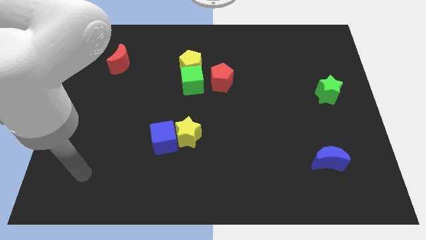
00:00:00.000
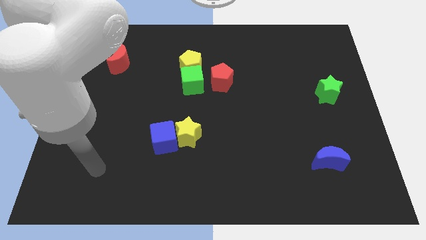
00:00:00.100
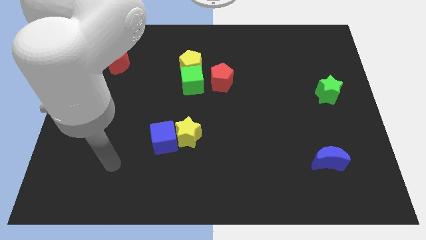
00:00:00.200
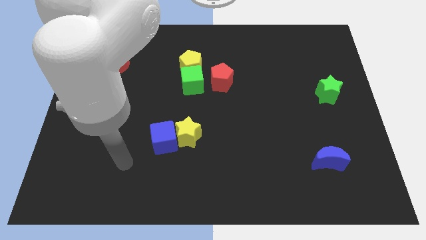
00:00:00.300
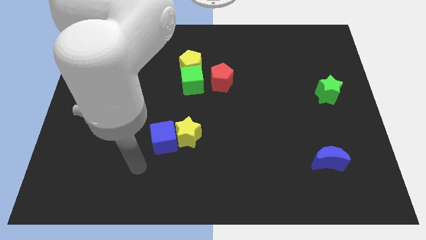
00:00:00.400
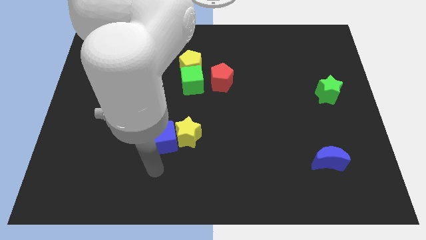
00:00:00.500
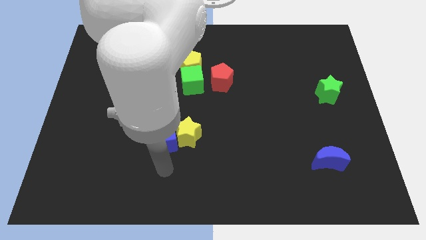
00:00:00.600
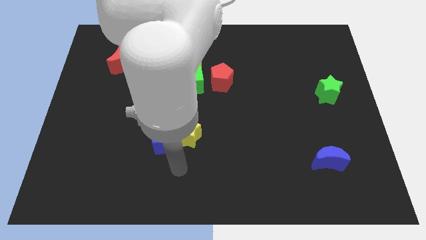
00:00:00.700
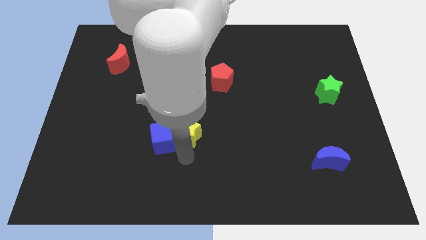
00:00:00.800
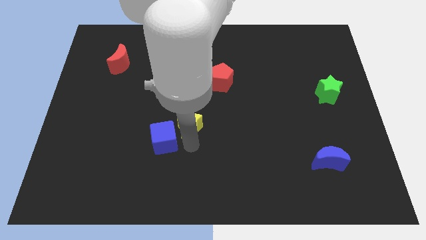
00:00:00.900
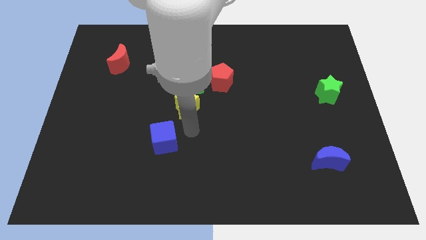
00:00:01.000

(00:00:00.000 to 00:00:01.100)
separate the blue cube from the yellow star

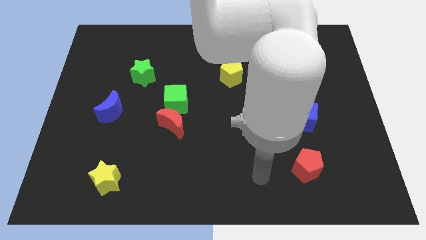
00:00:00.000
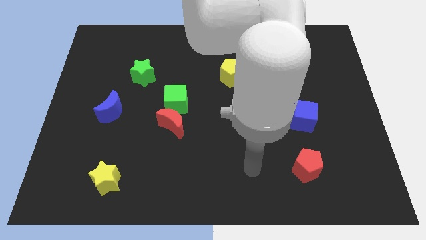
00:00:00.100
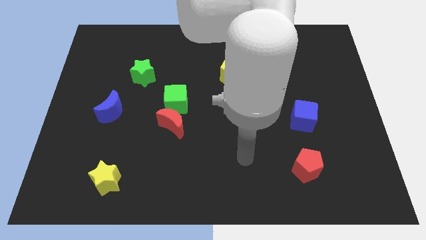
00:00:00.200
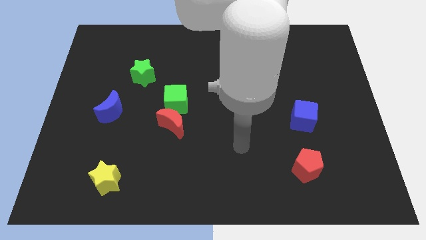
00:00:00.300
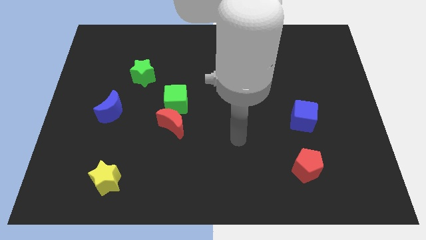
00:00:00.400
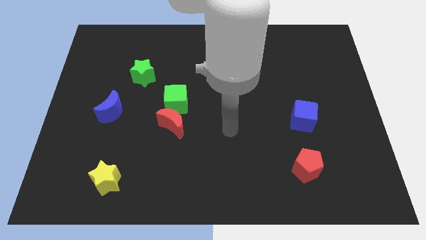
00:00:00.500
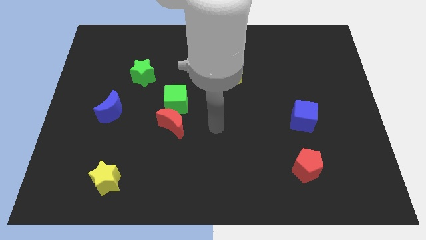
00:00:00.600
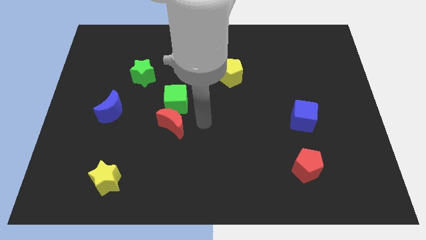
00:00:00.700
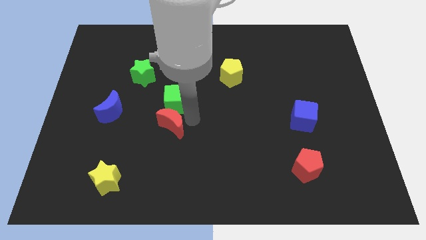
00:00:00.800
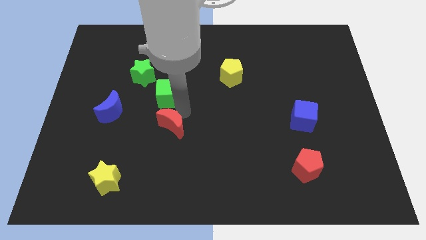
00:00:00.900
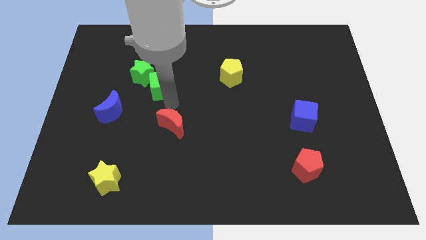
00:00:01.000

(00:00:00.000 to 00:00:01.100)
move the red moon away from the green cube

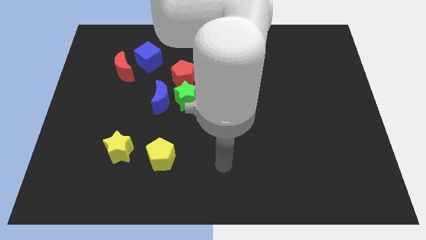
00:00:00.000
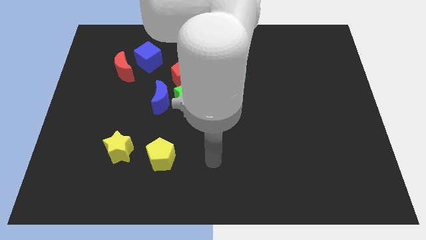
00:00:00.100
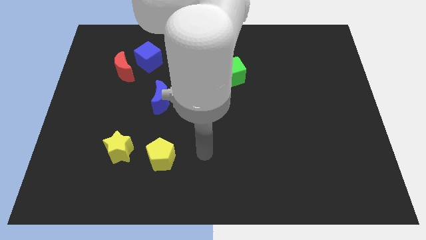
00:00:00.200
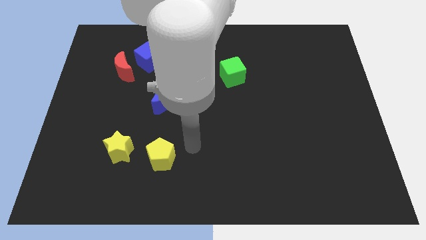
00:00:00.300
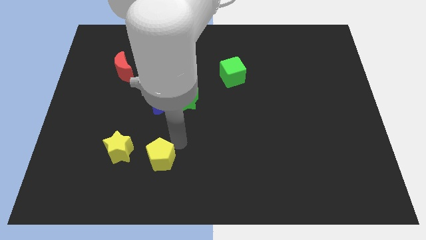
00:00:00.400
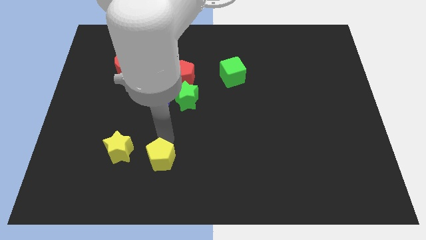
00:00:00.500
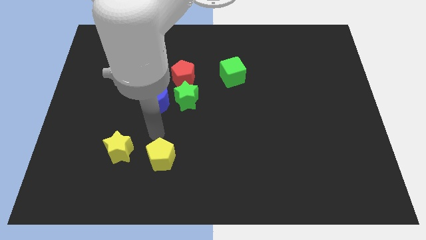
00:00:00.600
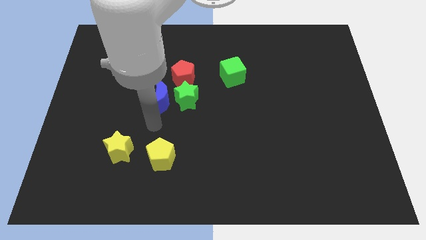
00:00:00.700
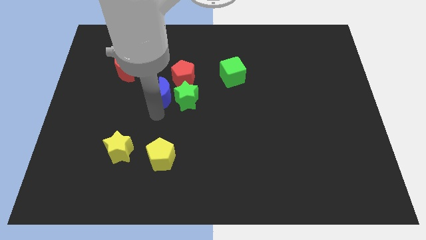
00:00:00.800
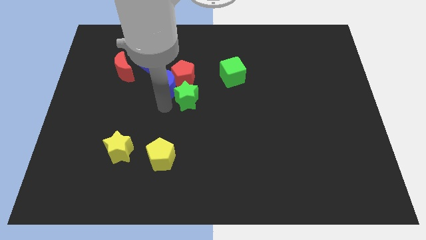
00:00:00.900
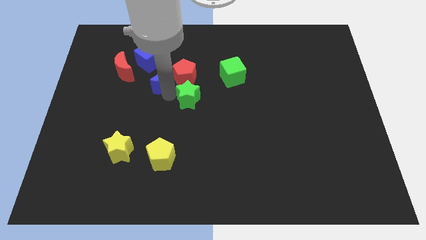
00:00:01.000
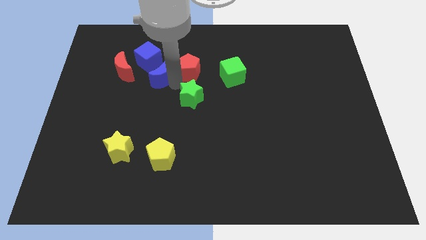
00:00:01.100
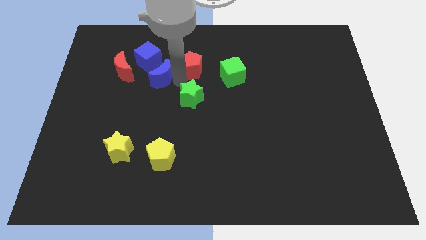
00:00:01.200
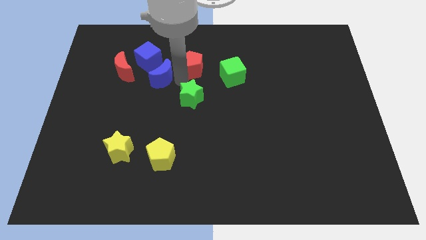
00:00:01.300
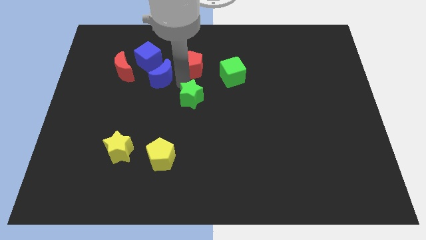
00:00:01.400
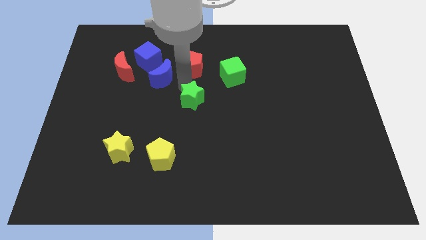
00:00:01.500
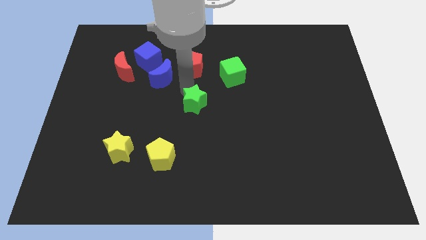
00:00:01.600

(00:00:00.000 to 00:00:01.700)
move the green star away from the blue moon and red pentagon

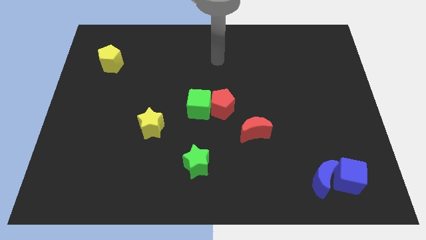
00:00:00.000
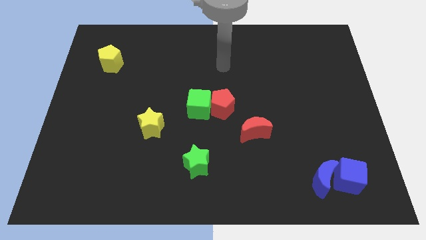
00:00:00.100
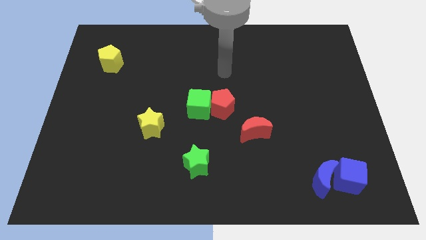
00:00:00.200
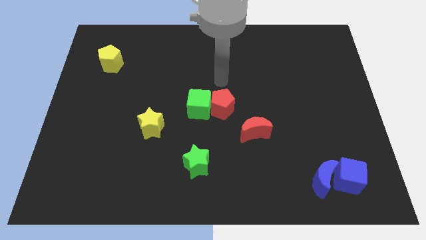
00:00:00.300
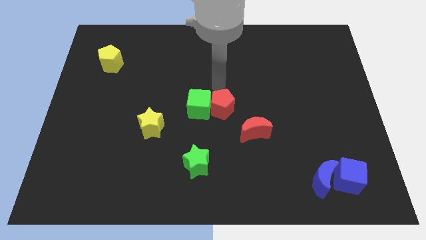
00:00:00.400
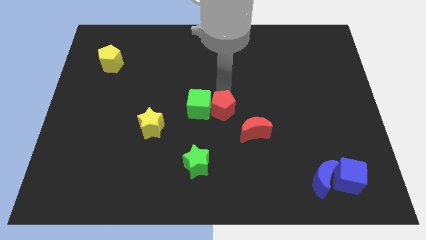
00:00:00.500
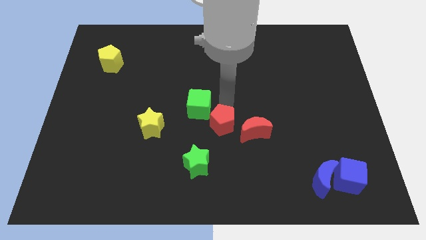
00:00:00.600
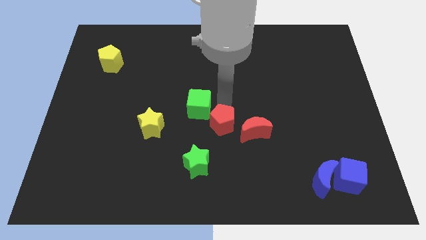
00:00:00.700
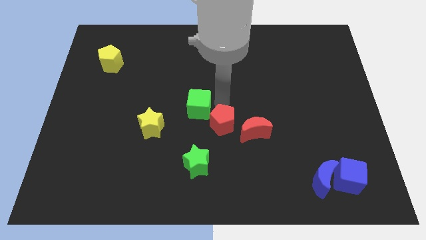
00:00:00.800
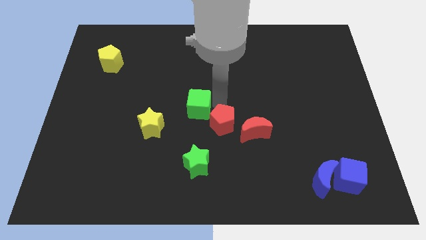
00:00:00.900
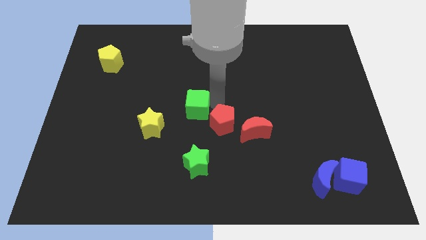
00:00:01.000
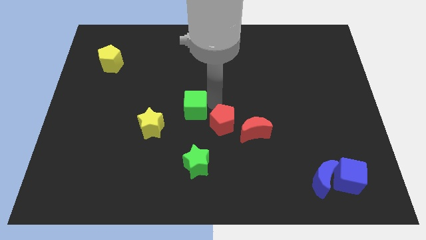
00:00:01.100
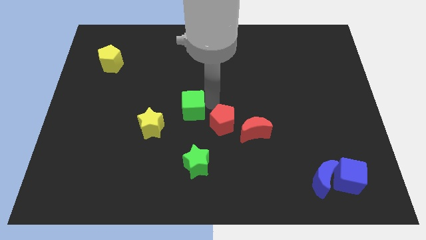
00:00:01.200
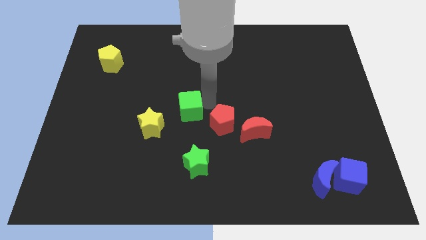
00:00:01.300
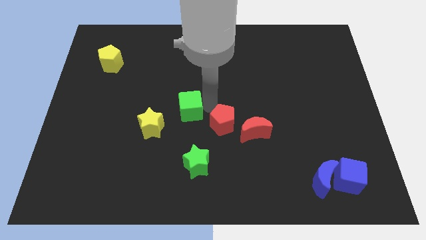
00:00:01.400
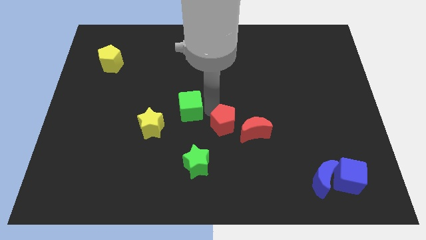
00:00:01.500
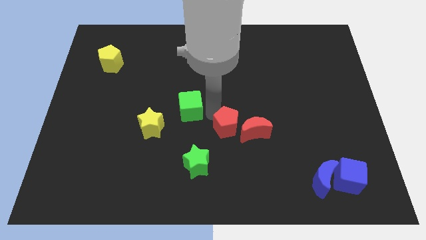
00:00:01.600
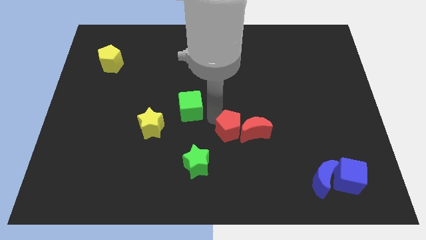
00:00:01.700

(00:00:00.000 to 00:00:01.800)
separate the green cube from the red pentagon

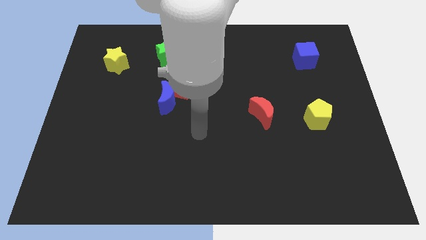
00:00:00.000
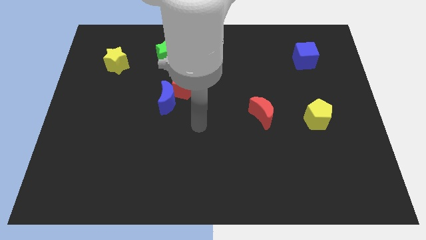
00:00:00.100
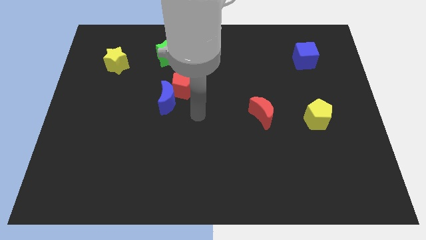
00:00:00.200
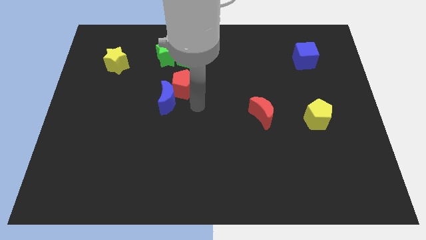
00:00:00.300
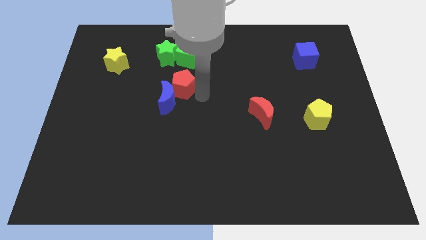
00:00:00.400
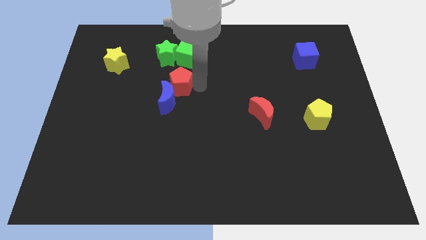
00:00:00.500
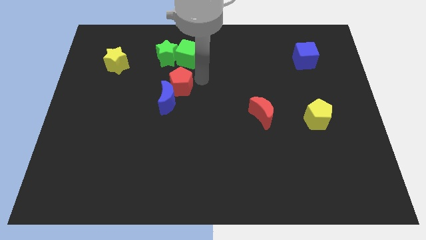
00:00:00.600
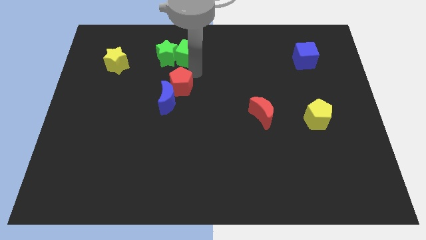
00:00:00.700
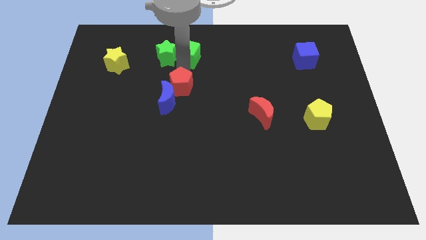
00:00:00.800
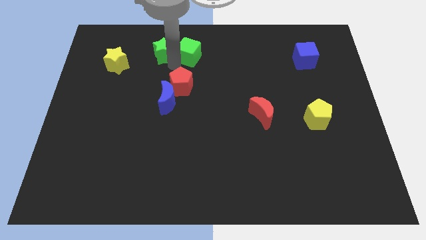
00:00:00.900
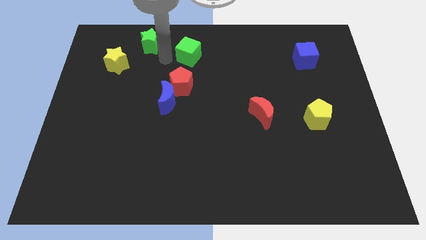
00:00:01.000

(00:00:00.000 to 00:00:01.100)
move the green cube away from the green star

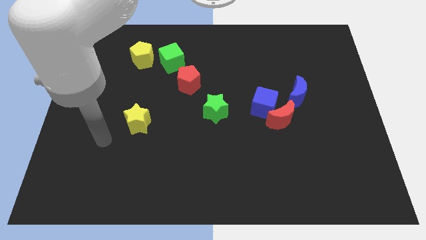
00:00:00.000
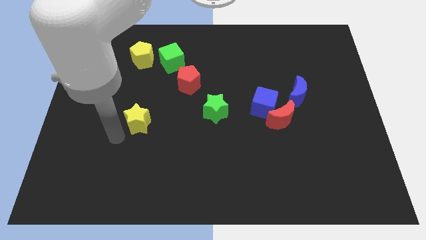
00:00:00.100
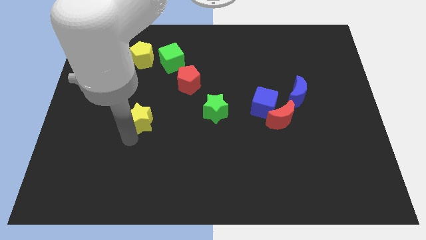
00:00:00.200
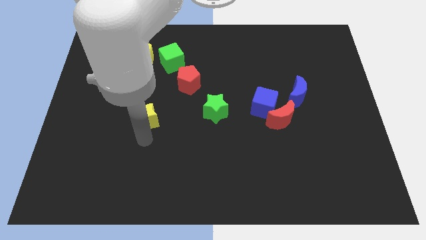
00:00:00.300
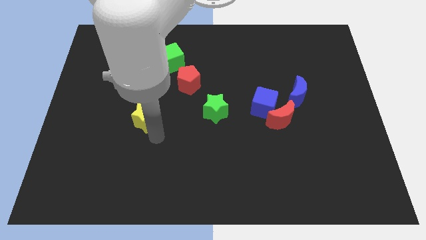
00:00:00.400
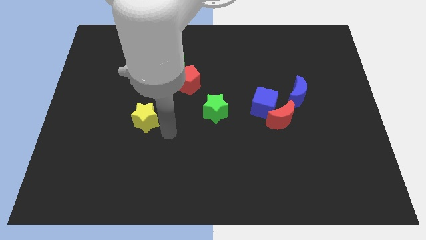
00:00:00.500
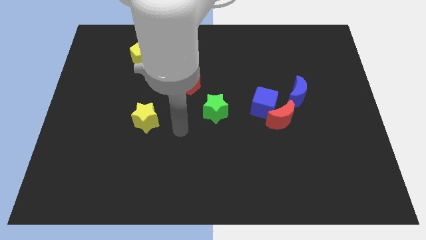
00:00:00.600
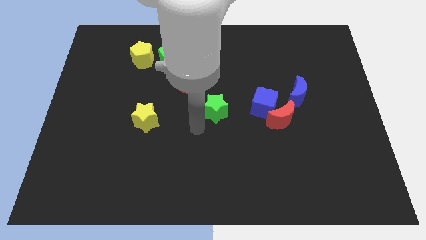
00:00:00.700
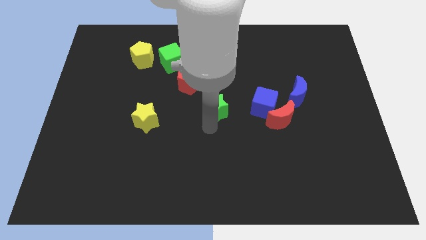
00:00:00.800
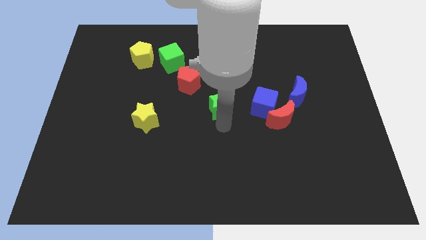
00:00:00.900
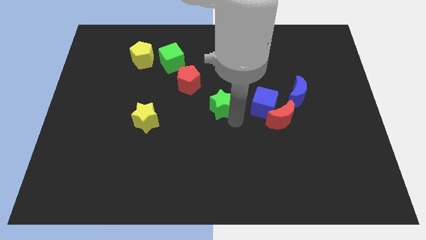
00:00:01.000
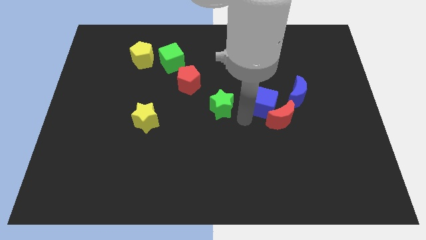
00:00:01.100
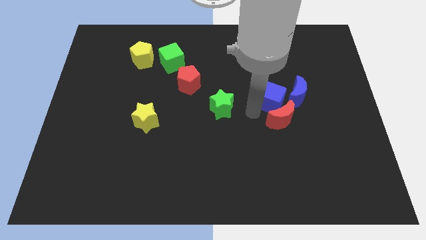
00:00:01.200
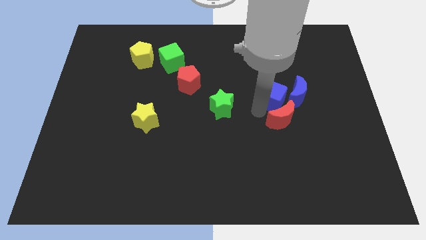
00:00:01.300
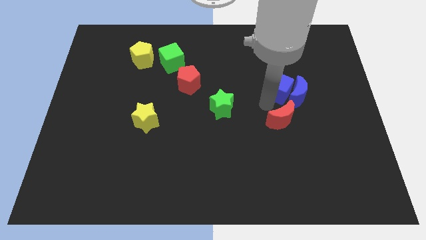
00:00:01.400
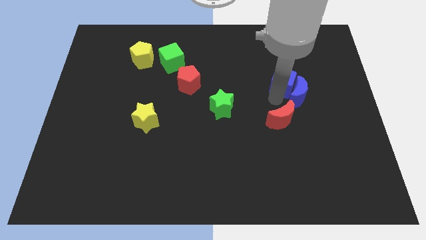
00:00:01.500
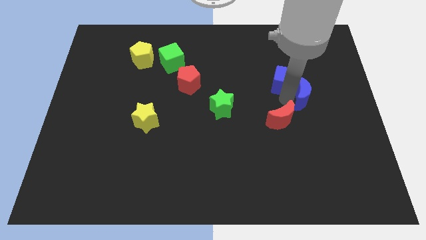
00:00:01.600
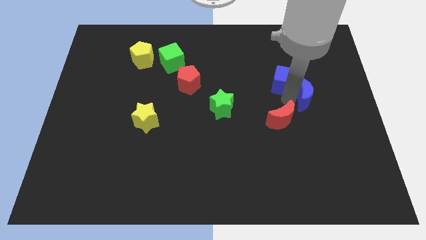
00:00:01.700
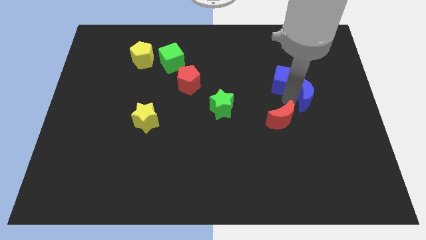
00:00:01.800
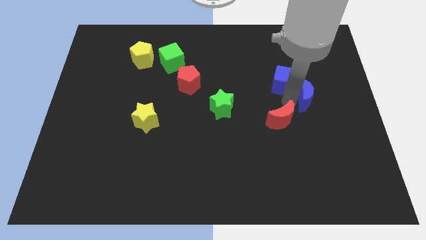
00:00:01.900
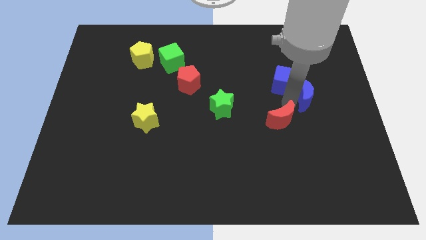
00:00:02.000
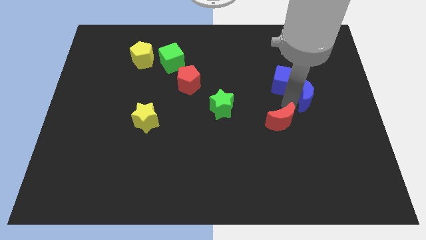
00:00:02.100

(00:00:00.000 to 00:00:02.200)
move the red moon away from the blue cube and blue moon

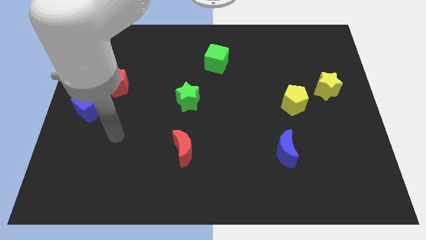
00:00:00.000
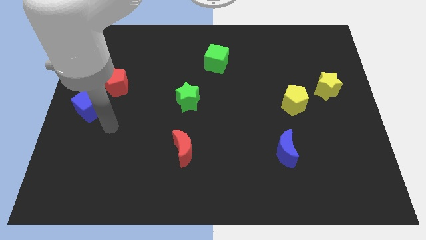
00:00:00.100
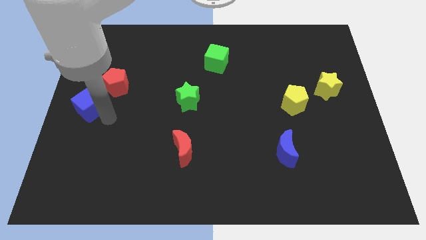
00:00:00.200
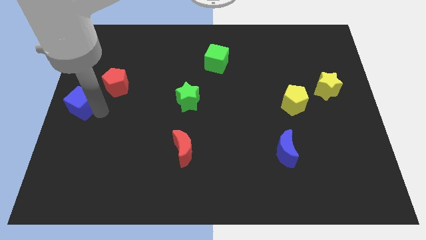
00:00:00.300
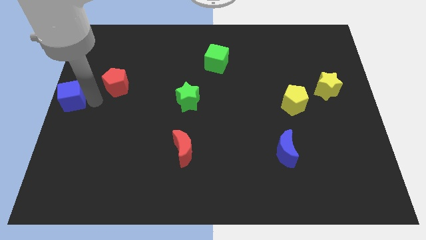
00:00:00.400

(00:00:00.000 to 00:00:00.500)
move the red pentagon away from the blue cube
